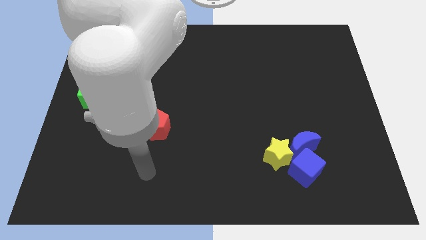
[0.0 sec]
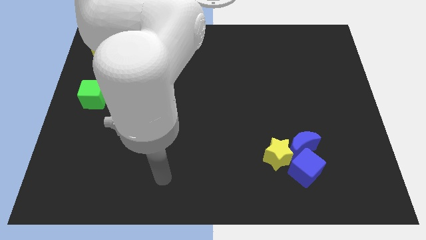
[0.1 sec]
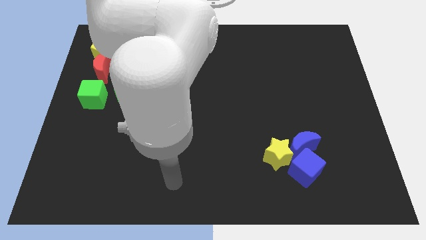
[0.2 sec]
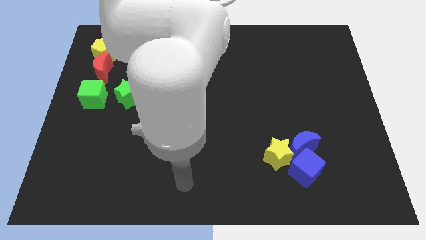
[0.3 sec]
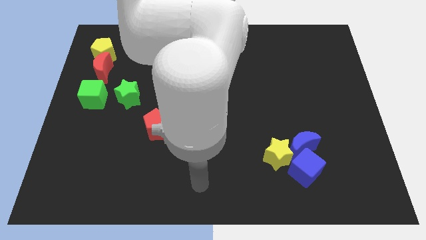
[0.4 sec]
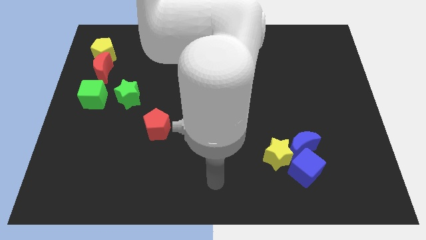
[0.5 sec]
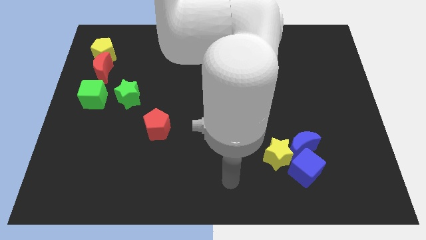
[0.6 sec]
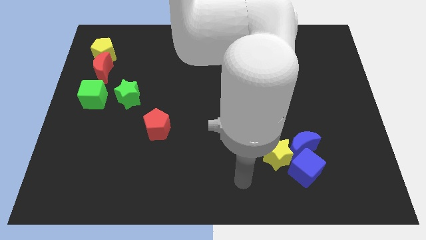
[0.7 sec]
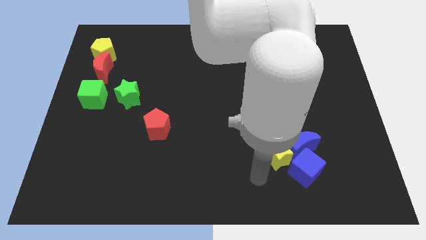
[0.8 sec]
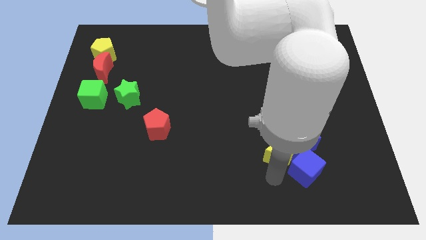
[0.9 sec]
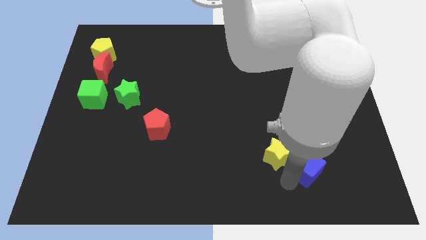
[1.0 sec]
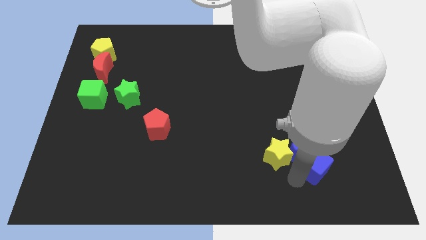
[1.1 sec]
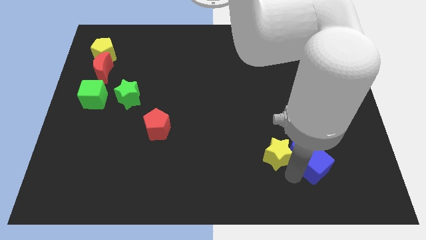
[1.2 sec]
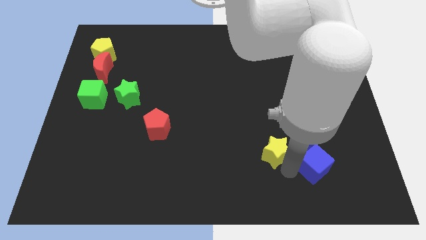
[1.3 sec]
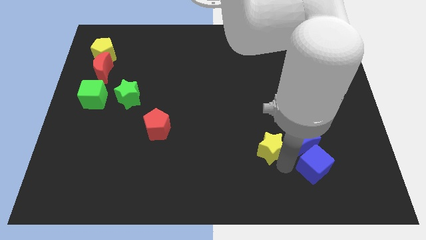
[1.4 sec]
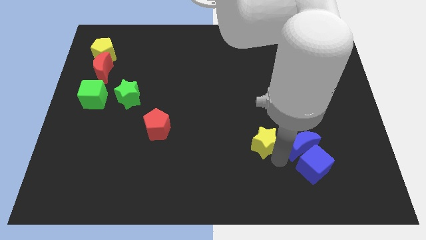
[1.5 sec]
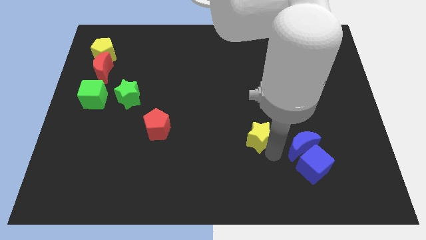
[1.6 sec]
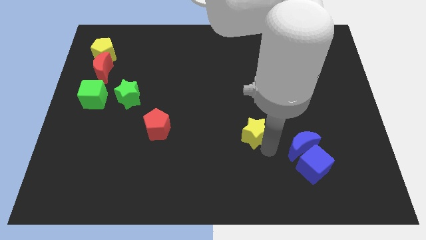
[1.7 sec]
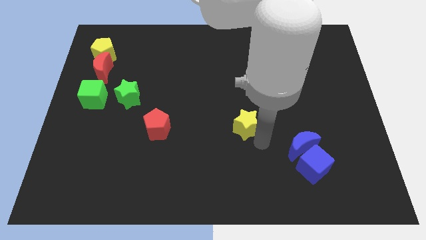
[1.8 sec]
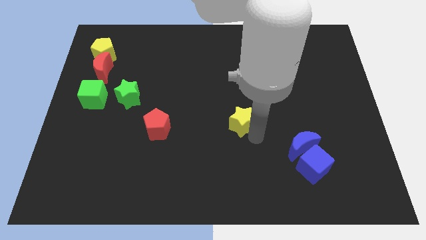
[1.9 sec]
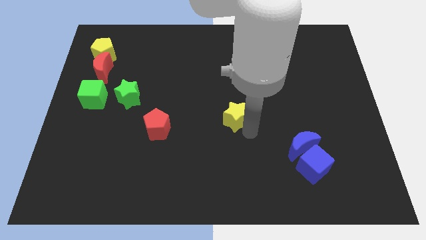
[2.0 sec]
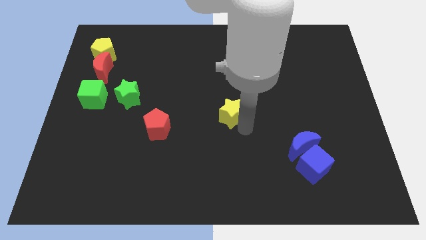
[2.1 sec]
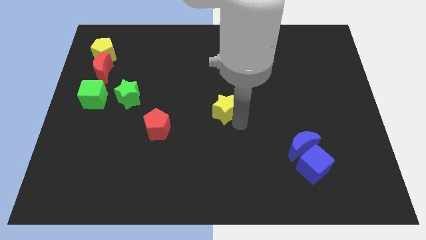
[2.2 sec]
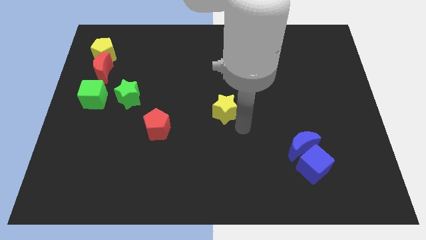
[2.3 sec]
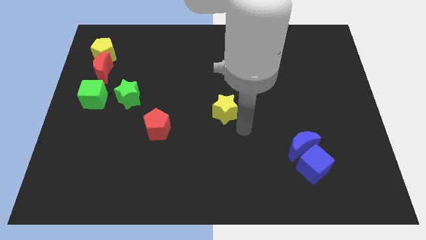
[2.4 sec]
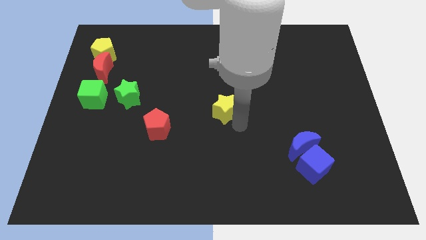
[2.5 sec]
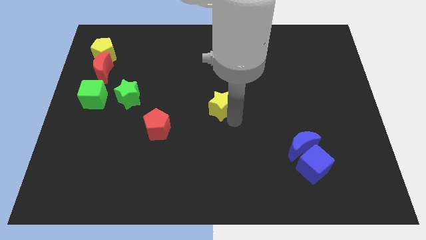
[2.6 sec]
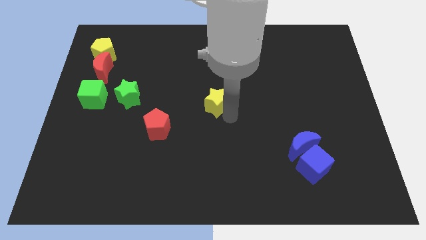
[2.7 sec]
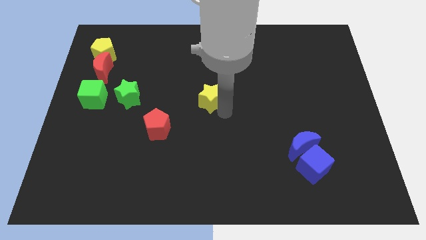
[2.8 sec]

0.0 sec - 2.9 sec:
move the yellow star upwards and then to the left

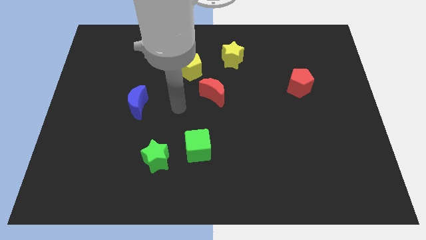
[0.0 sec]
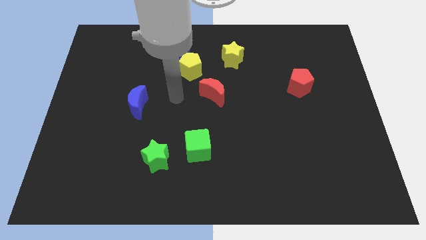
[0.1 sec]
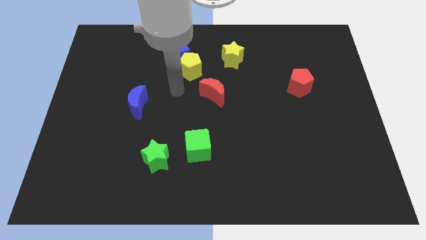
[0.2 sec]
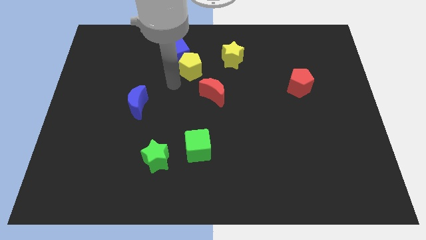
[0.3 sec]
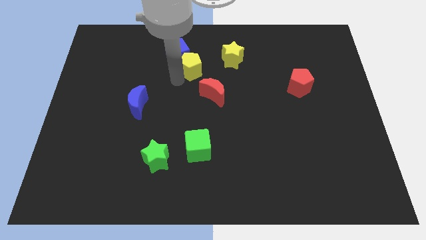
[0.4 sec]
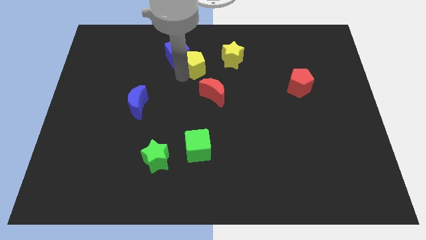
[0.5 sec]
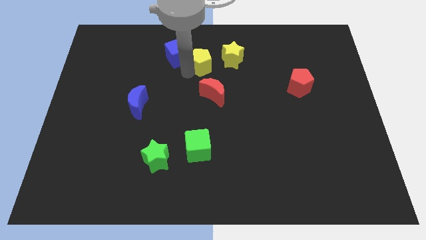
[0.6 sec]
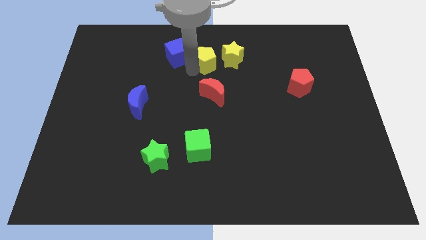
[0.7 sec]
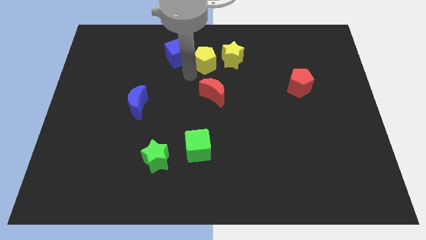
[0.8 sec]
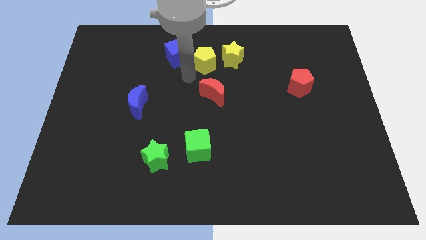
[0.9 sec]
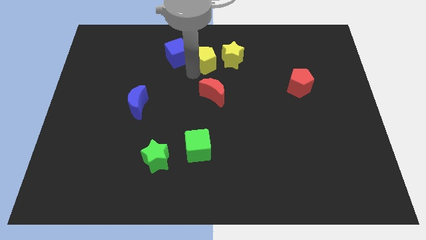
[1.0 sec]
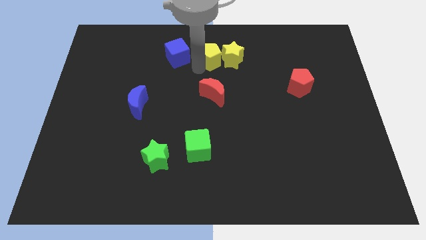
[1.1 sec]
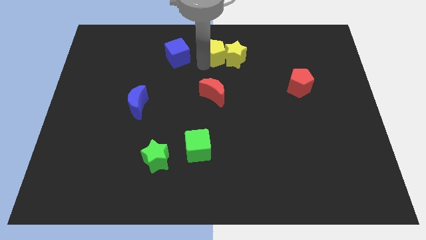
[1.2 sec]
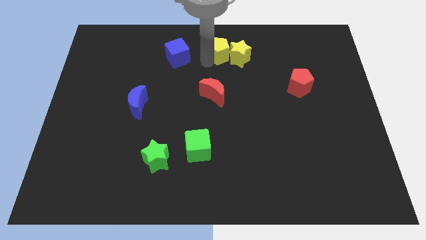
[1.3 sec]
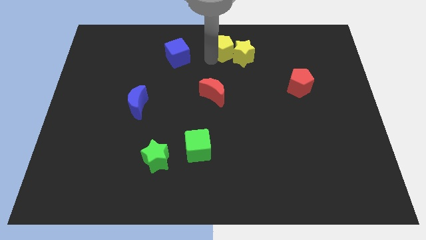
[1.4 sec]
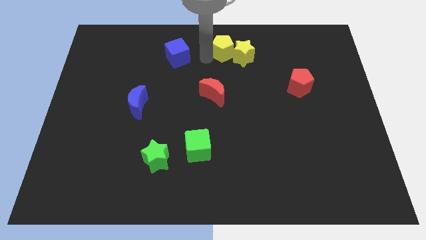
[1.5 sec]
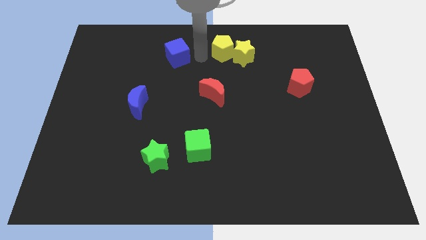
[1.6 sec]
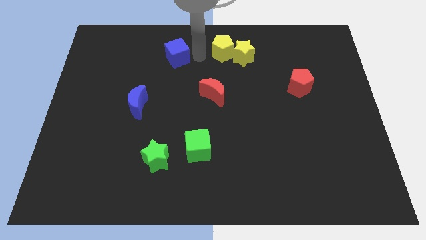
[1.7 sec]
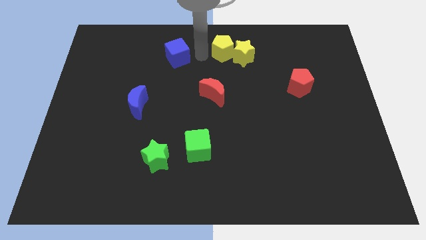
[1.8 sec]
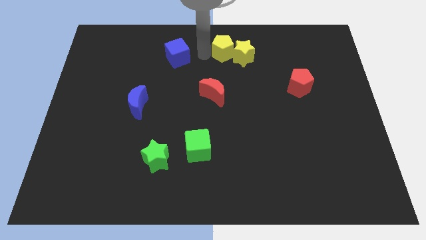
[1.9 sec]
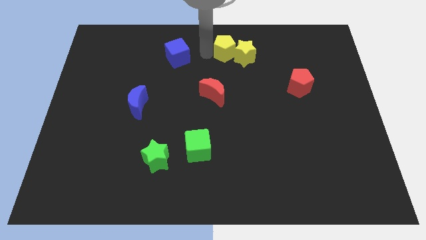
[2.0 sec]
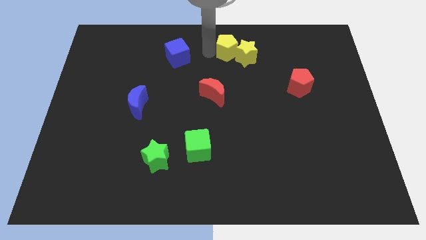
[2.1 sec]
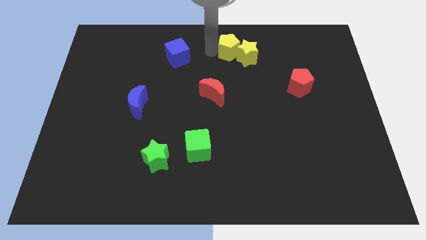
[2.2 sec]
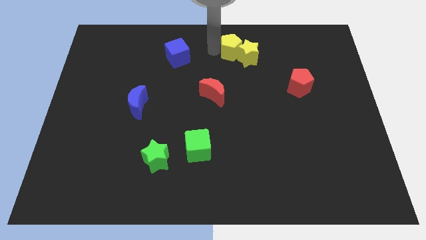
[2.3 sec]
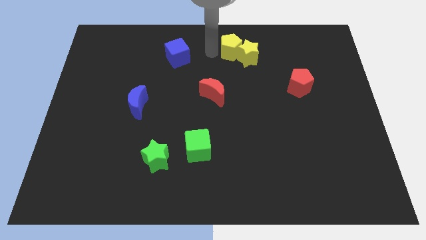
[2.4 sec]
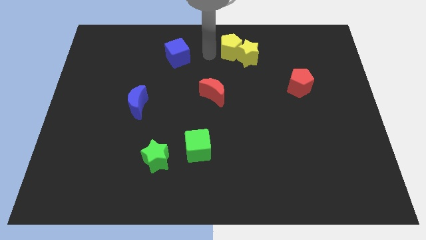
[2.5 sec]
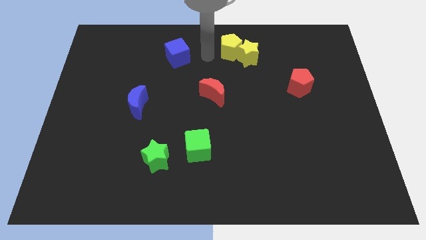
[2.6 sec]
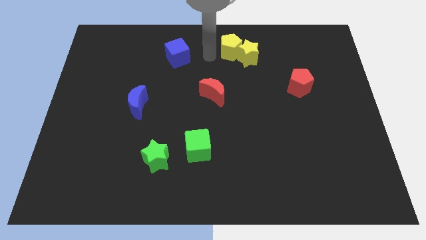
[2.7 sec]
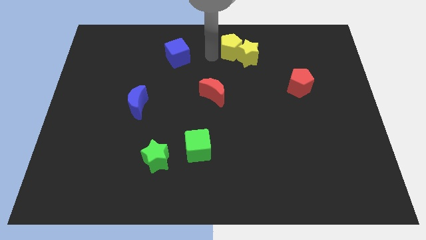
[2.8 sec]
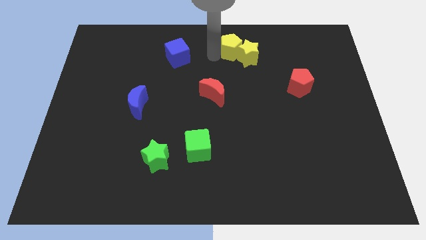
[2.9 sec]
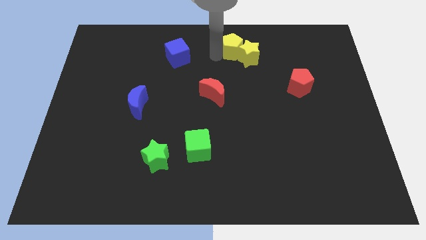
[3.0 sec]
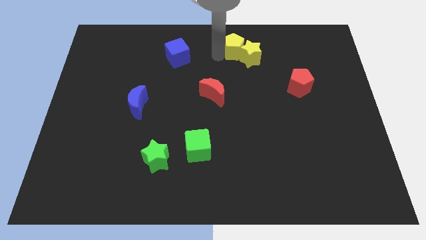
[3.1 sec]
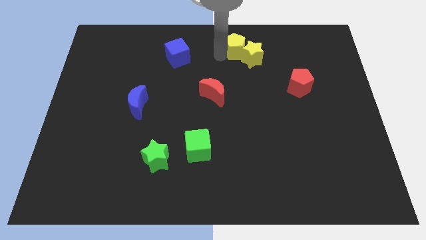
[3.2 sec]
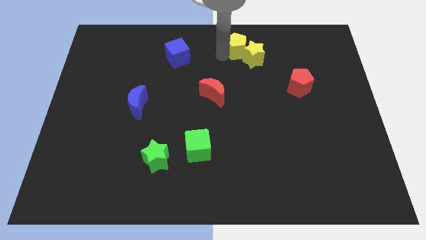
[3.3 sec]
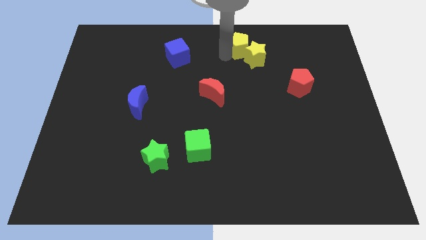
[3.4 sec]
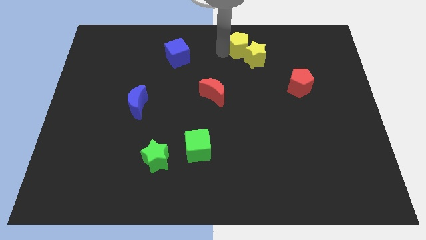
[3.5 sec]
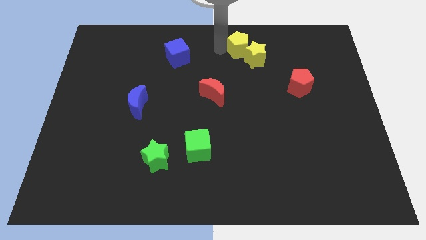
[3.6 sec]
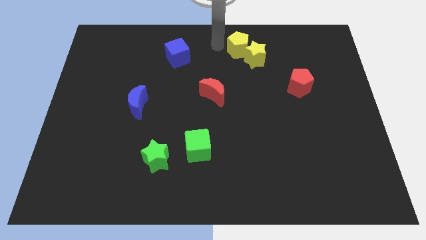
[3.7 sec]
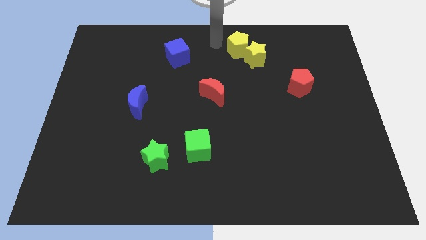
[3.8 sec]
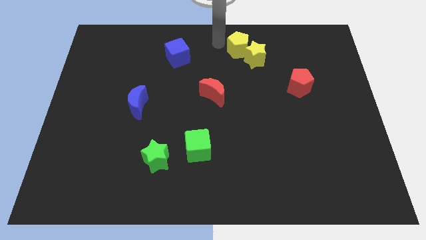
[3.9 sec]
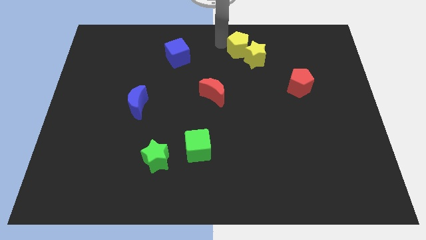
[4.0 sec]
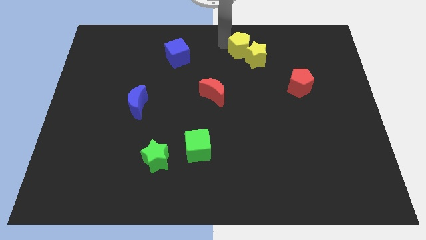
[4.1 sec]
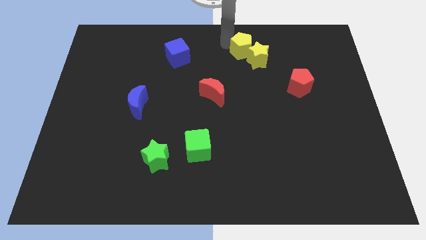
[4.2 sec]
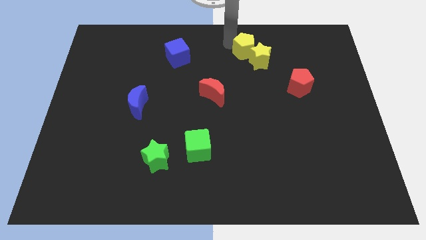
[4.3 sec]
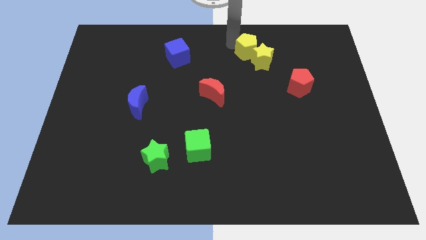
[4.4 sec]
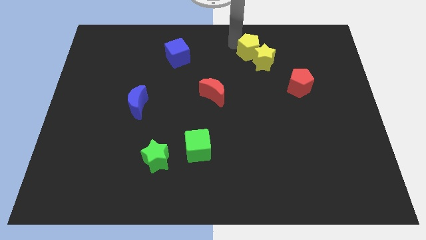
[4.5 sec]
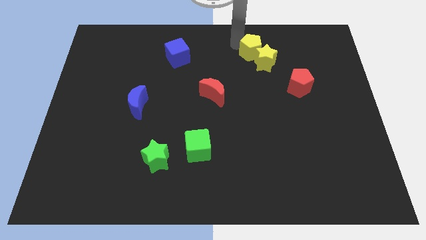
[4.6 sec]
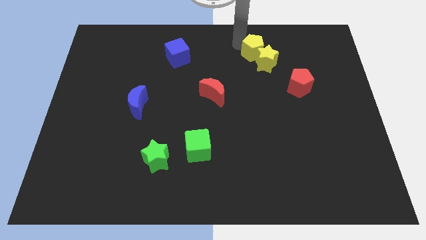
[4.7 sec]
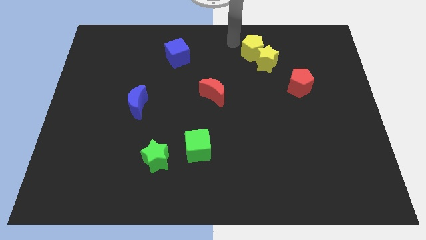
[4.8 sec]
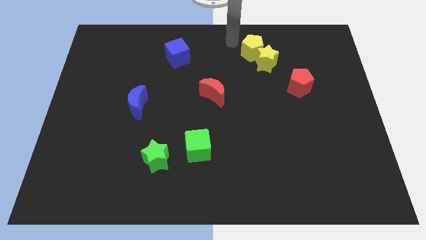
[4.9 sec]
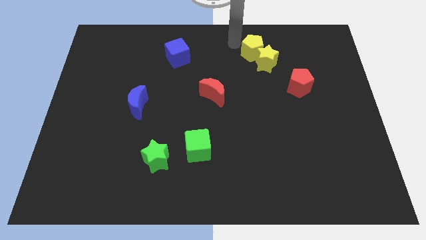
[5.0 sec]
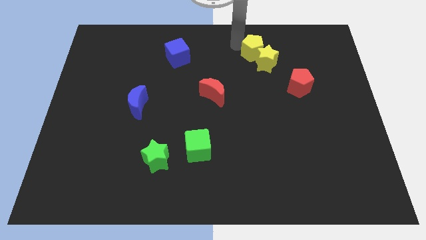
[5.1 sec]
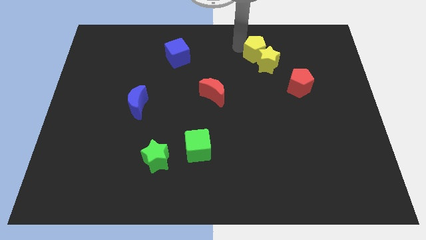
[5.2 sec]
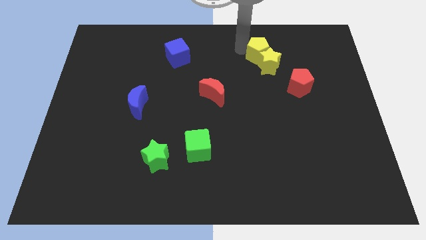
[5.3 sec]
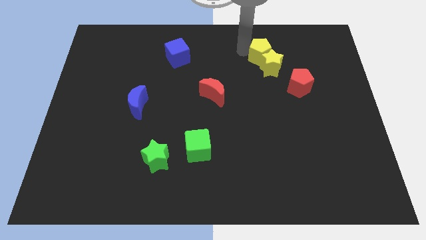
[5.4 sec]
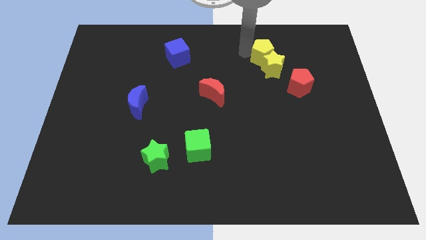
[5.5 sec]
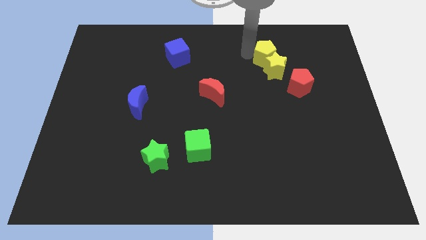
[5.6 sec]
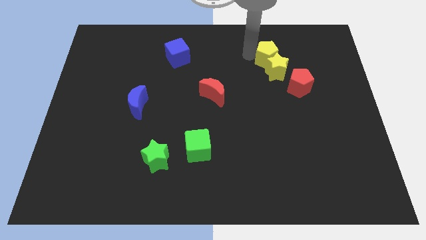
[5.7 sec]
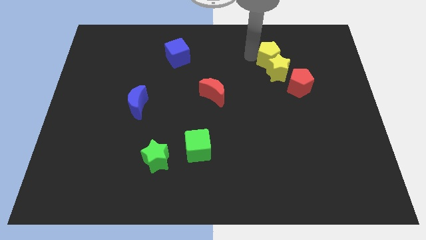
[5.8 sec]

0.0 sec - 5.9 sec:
push the yellow pentagon right
